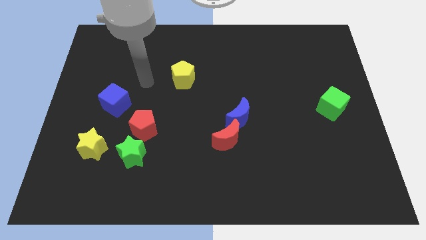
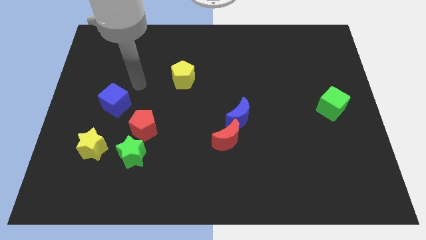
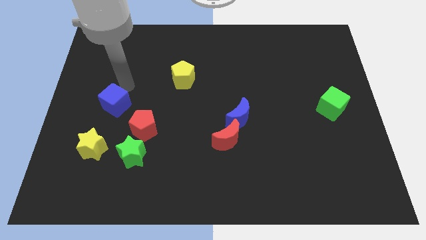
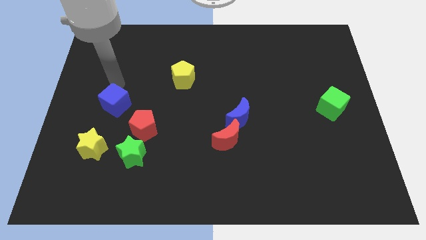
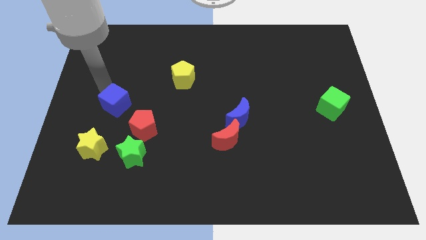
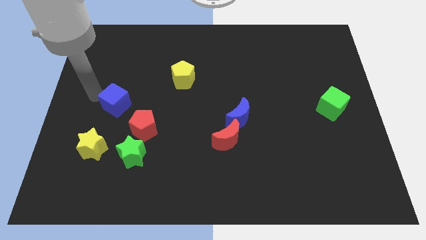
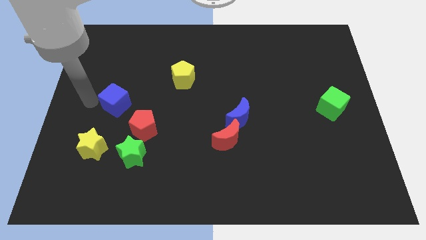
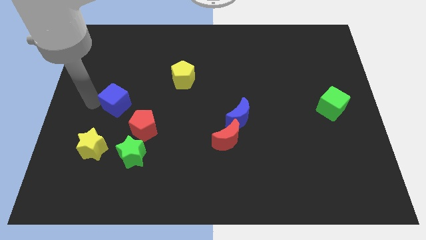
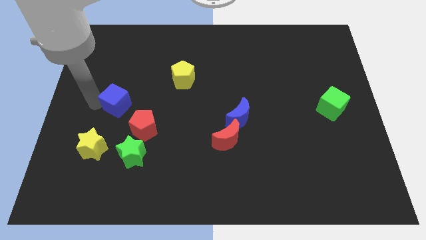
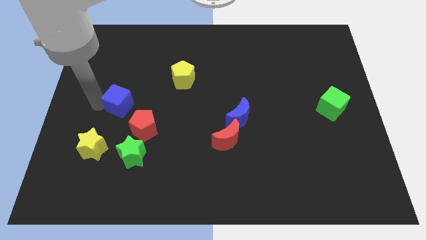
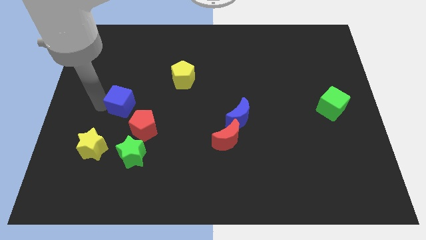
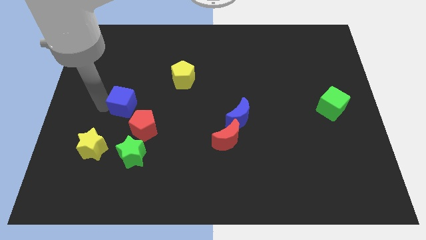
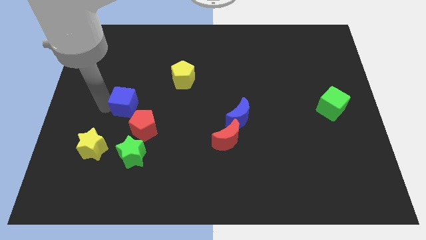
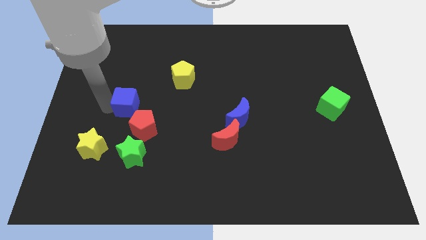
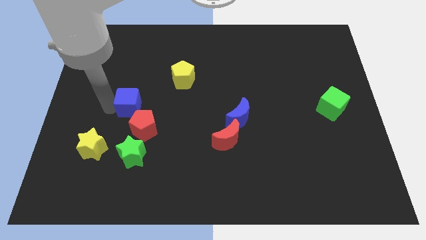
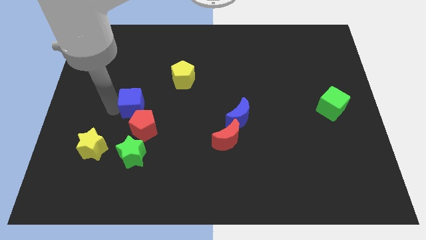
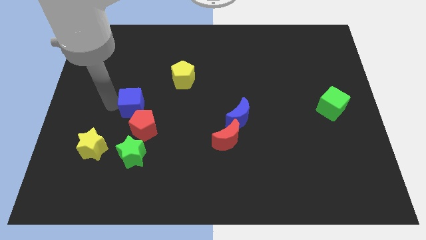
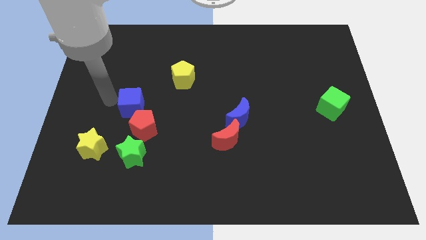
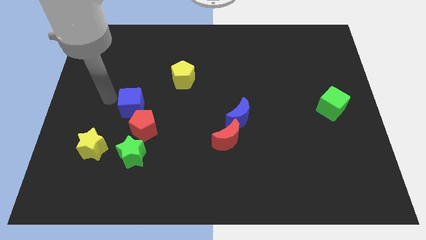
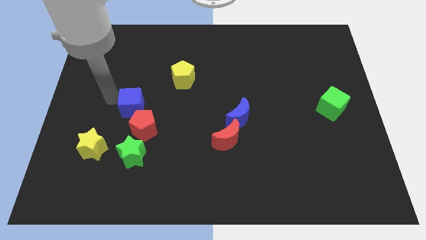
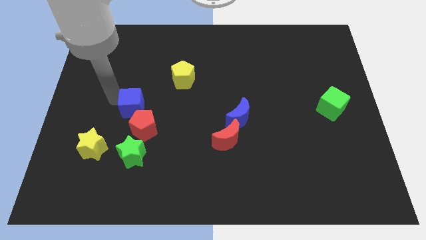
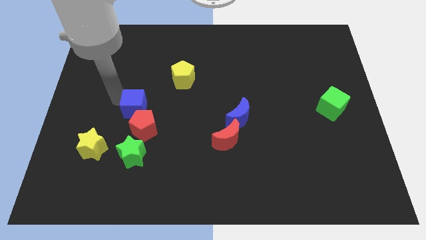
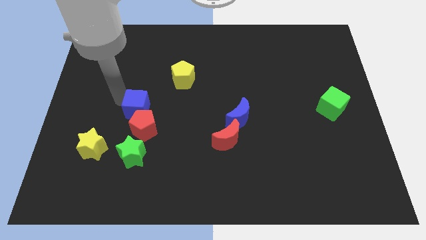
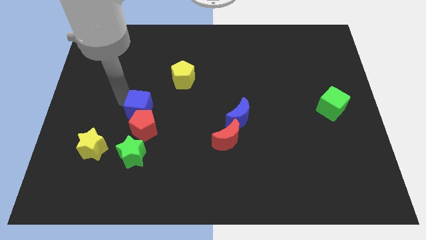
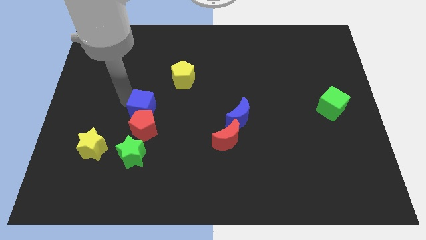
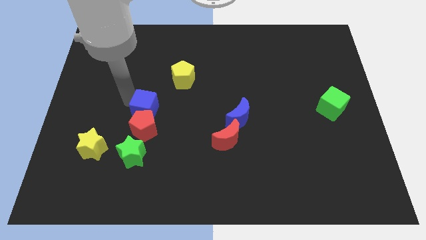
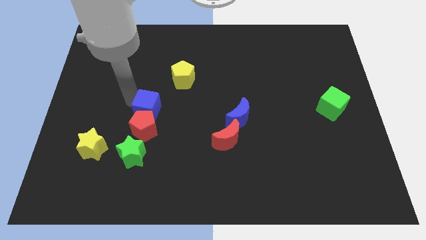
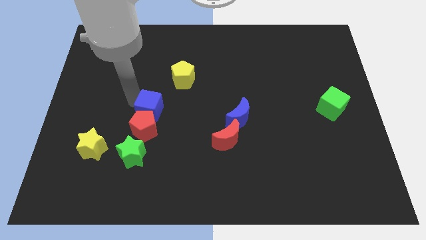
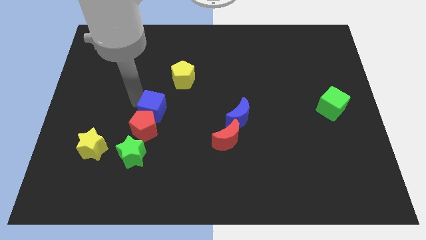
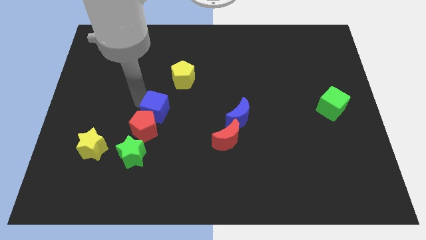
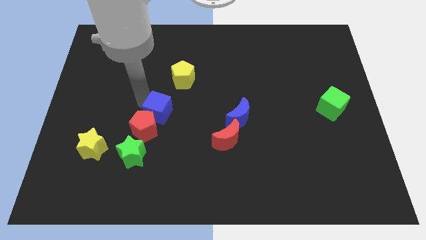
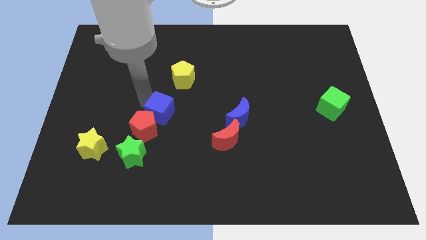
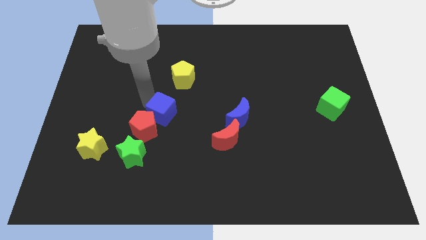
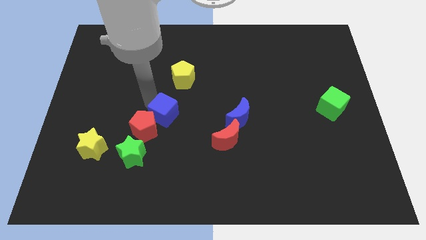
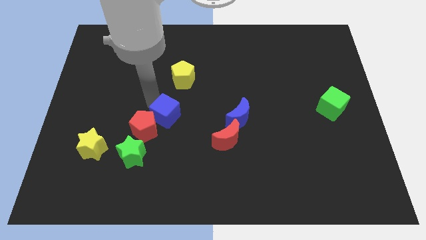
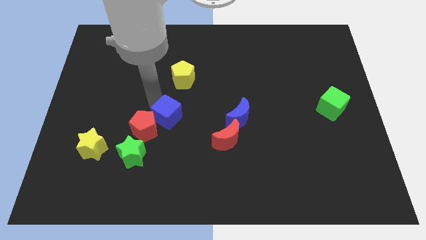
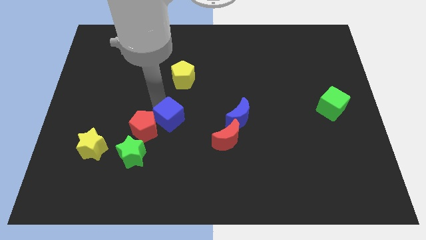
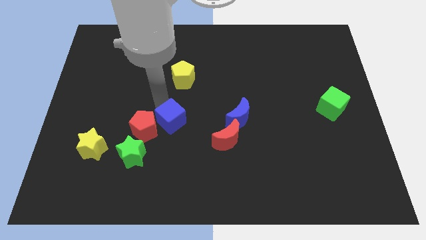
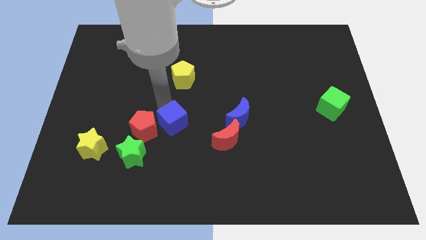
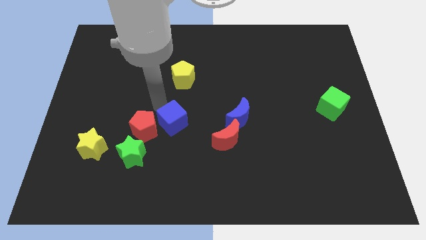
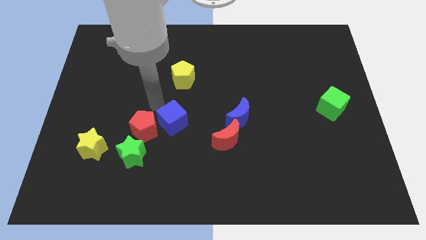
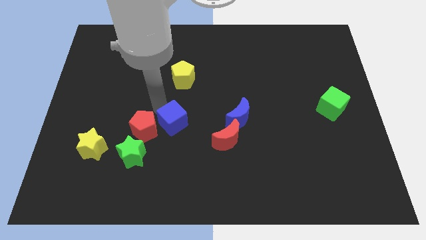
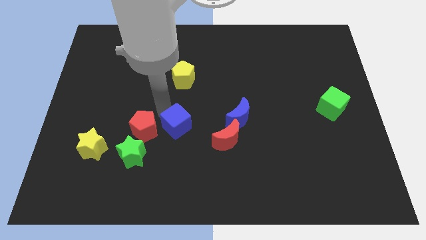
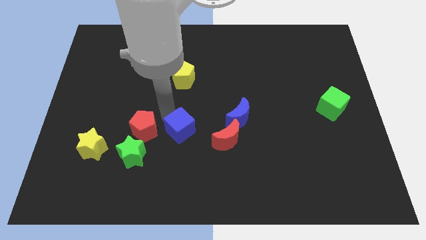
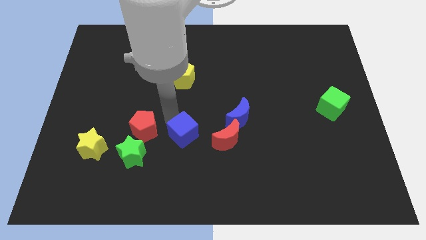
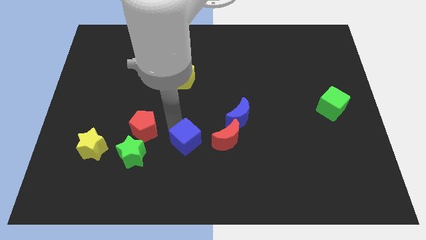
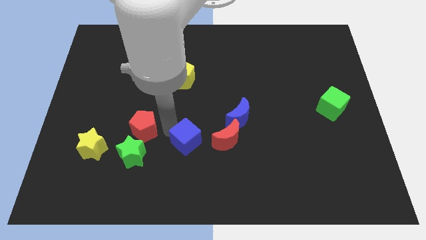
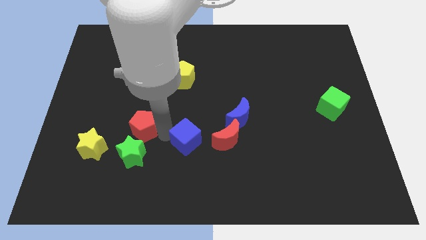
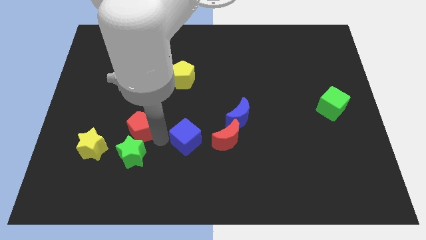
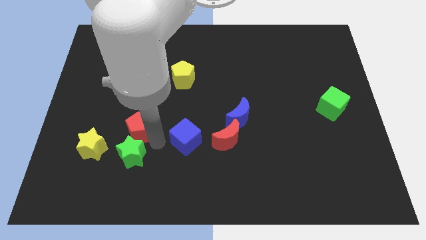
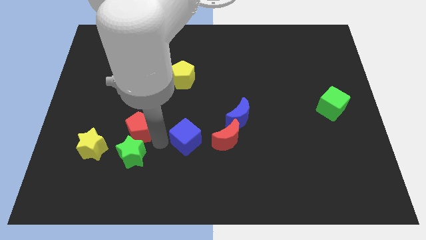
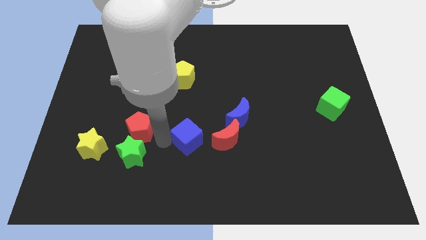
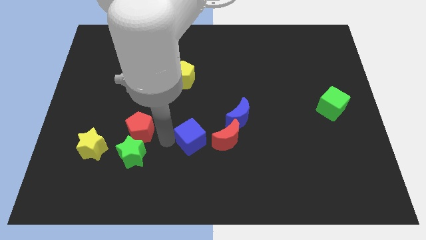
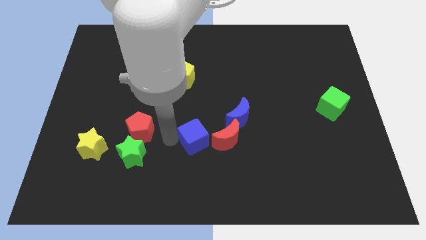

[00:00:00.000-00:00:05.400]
put the blue cube to the bottom left of the blue moon
